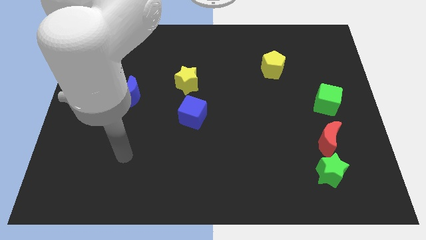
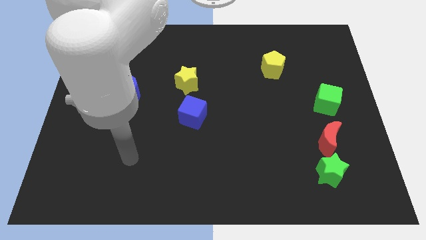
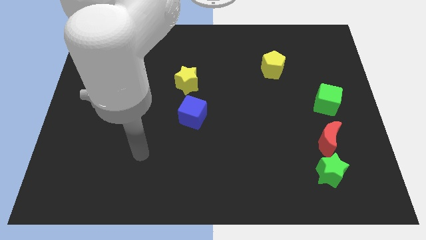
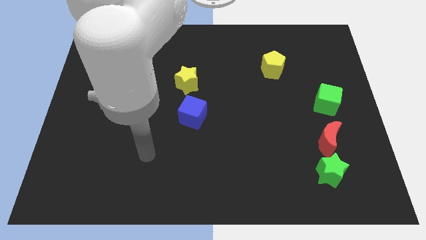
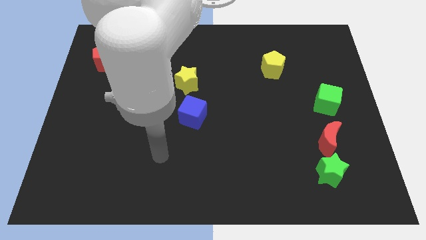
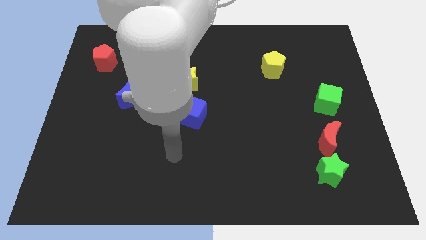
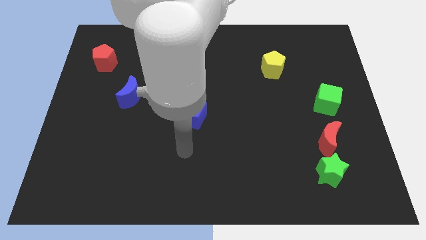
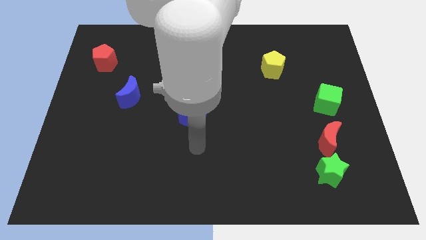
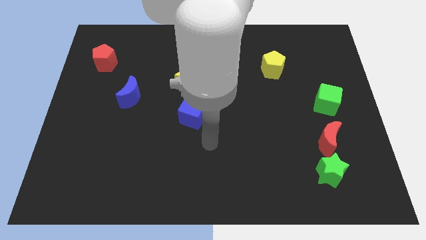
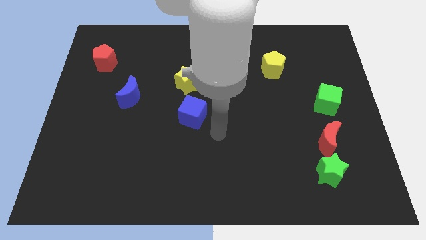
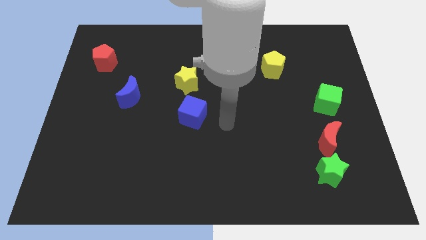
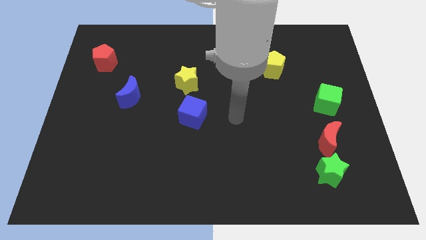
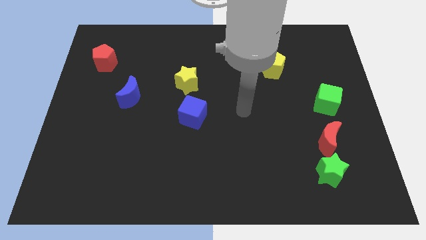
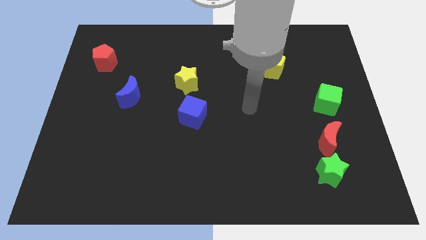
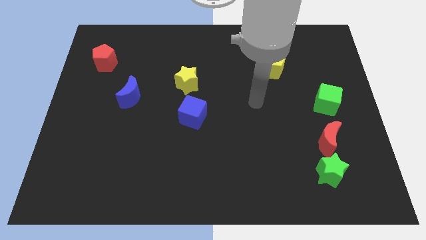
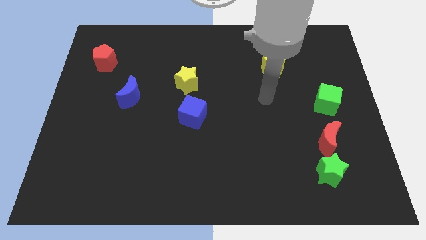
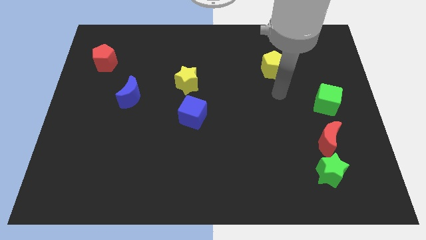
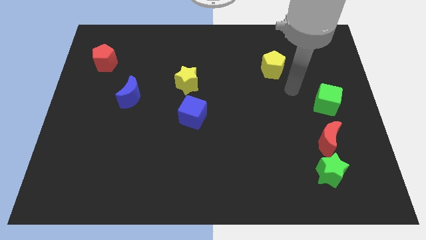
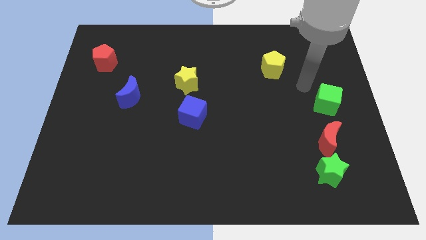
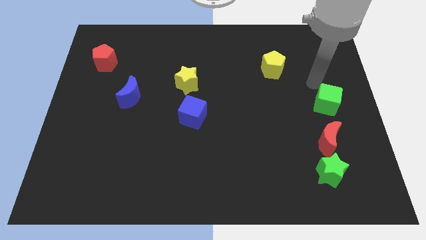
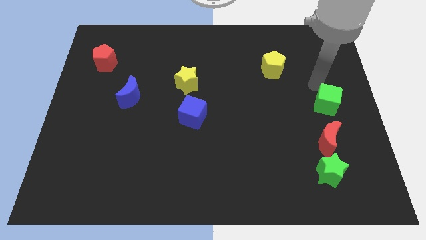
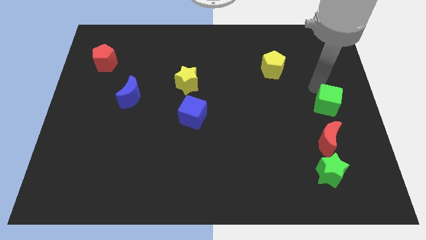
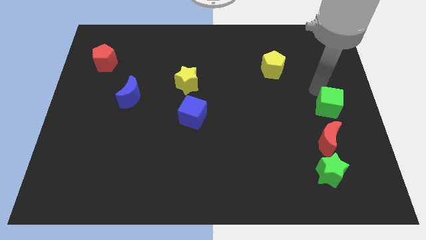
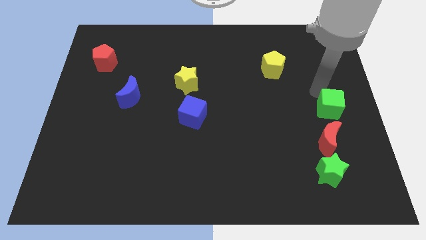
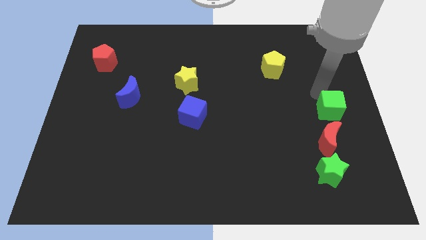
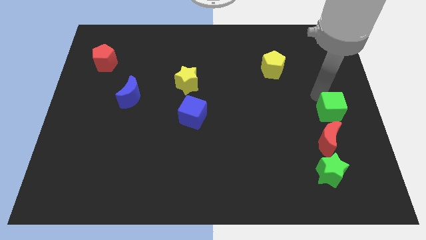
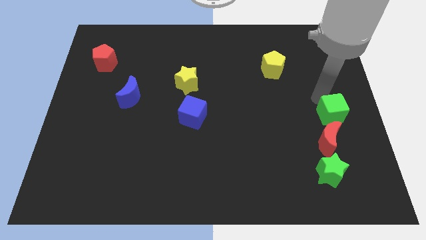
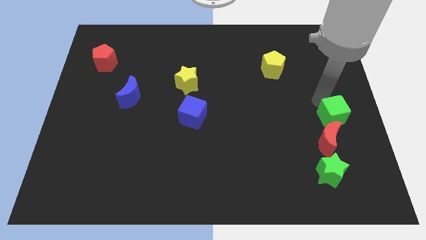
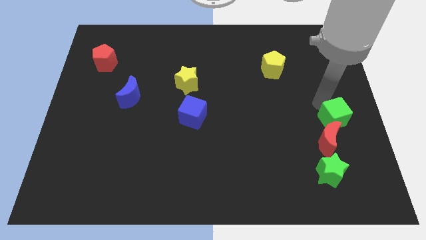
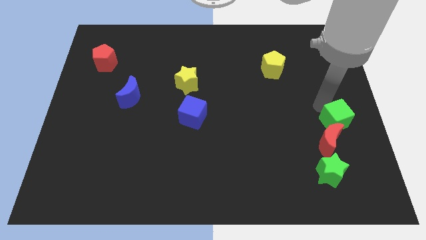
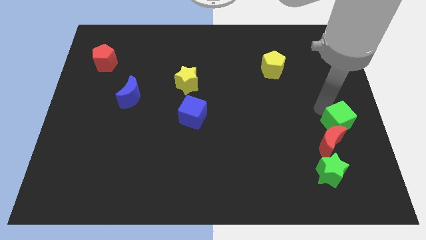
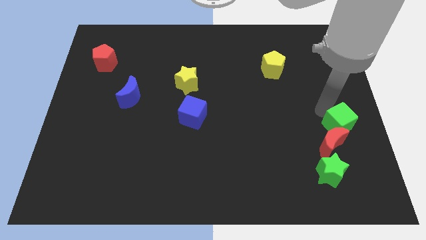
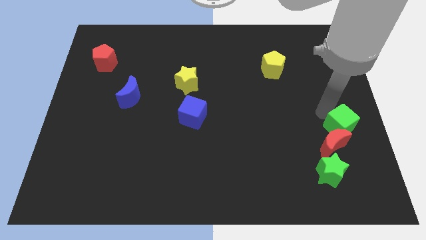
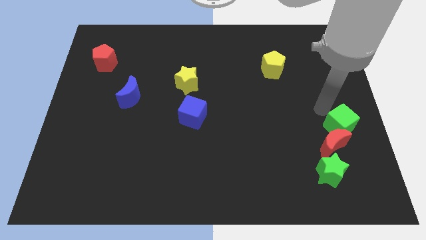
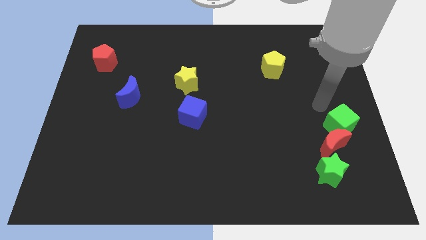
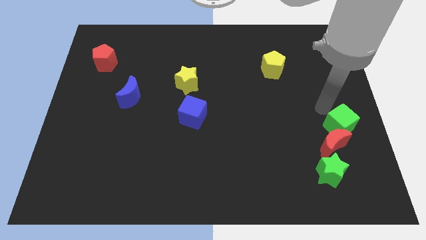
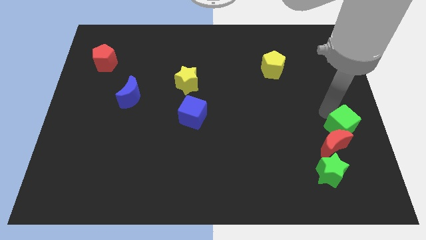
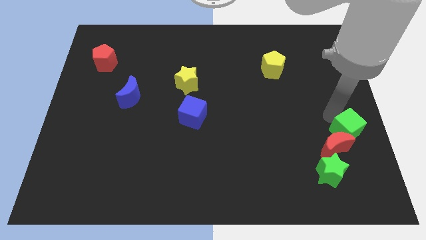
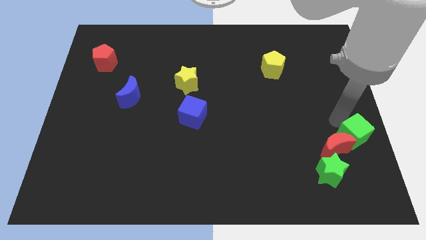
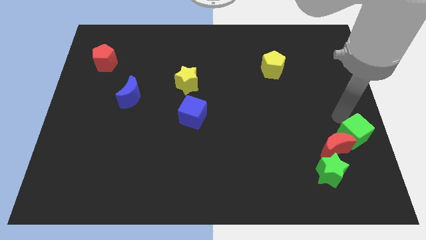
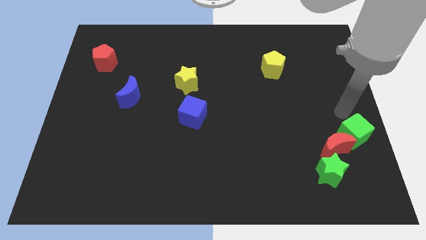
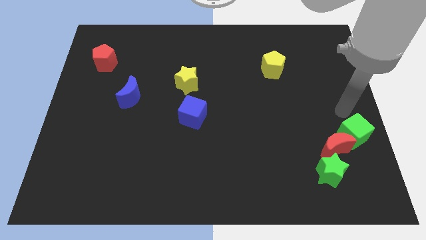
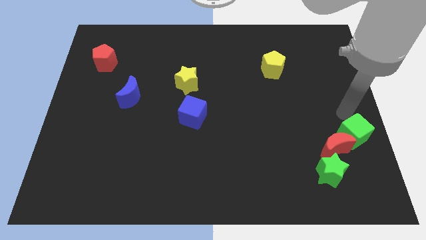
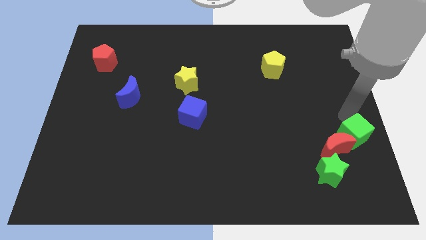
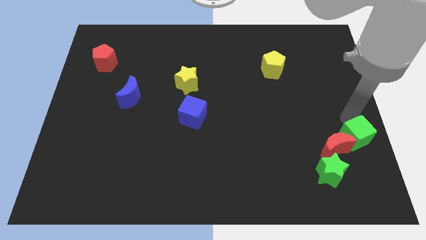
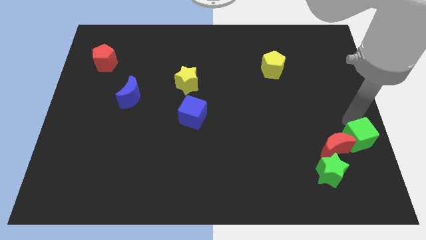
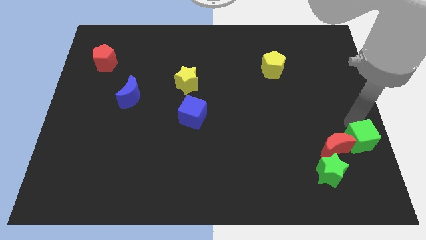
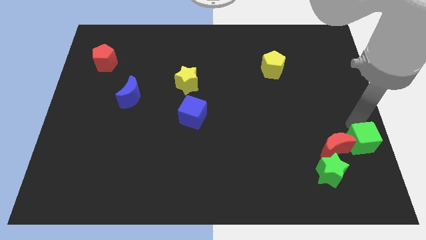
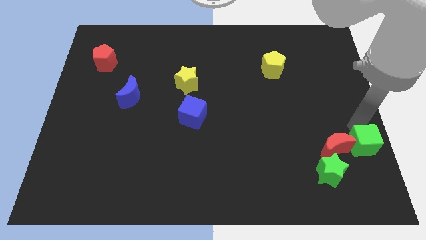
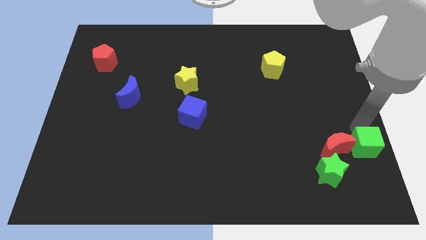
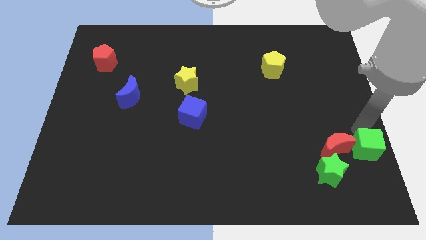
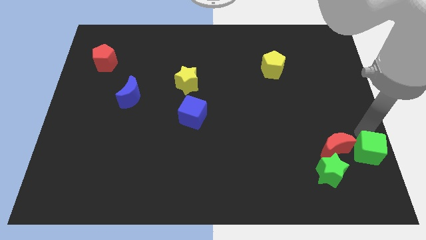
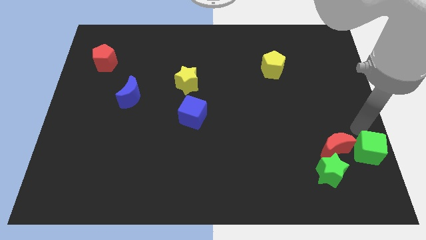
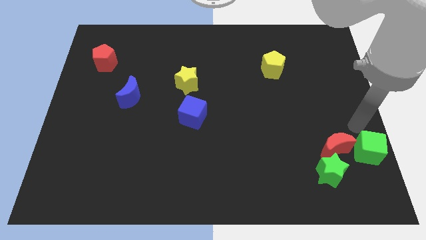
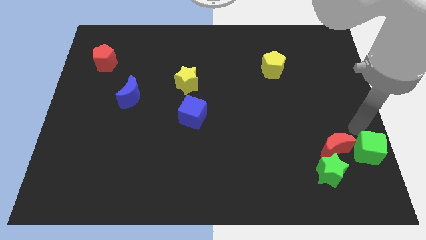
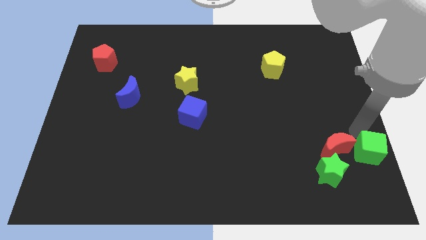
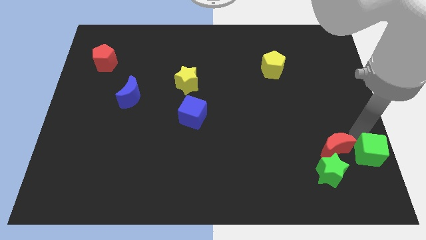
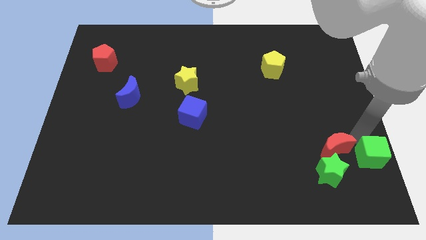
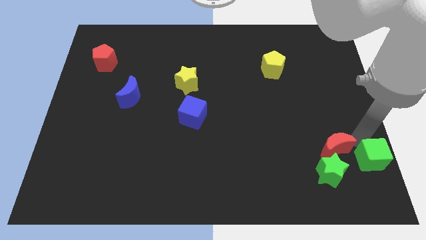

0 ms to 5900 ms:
put the green cube to the lower right corner

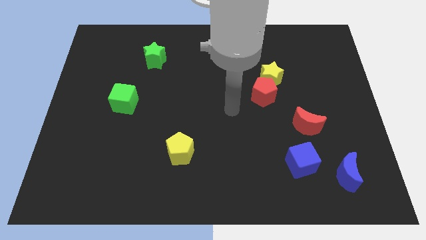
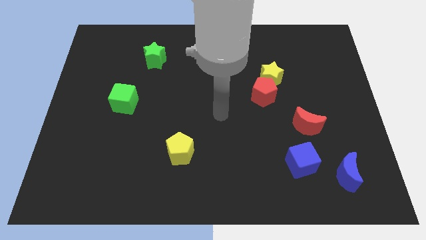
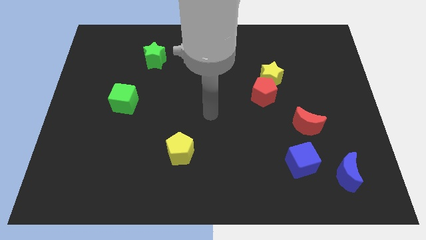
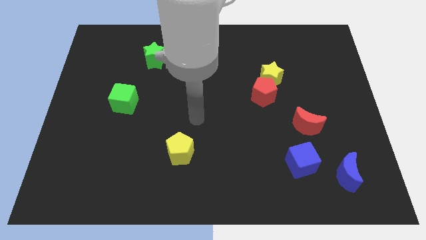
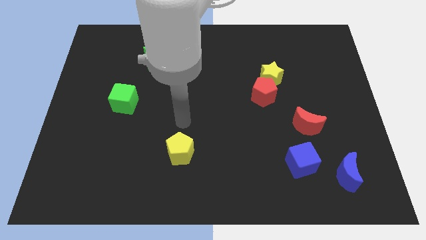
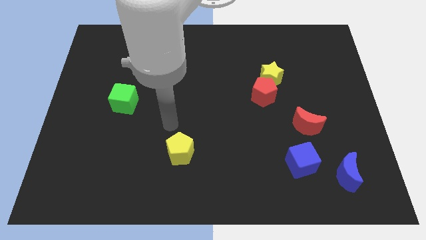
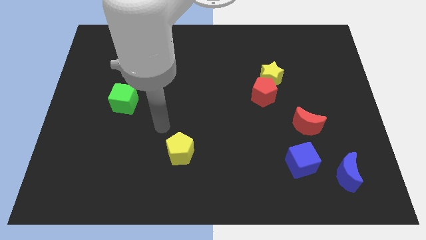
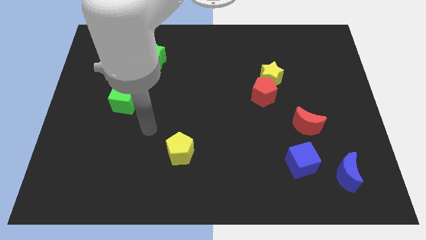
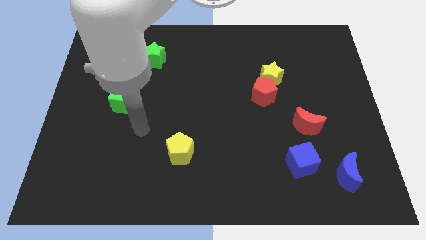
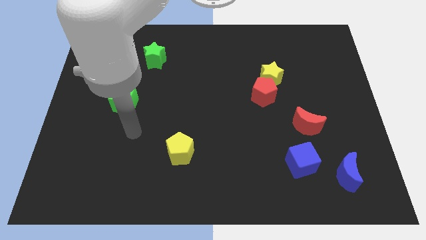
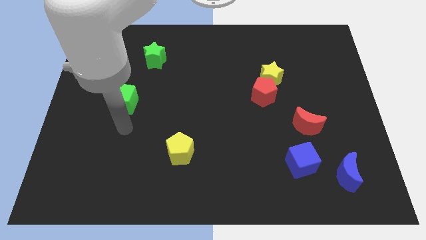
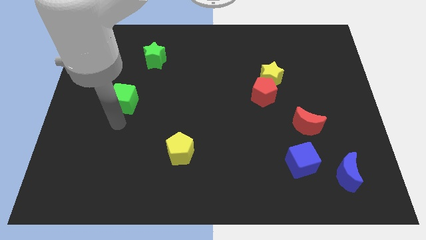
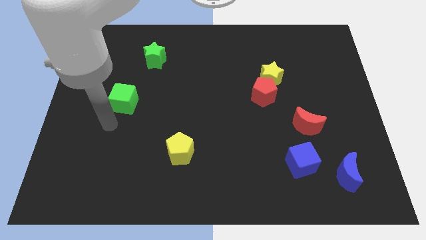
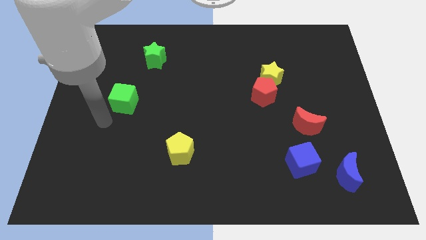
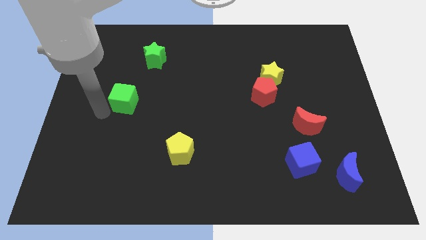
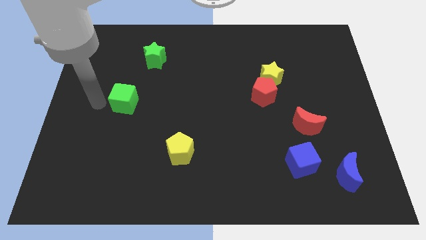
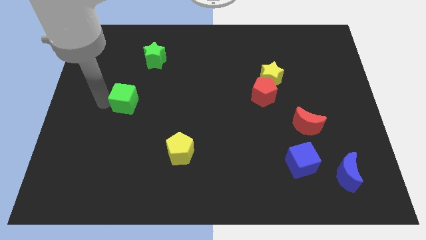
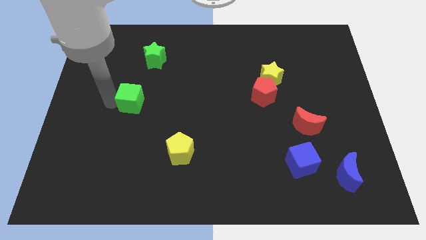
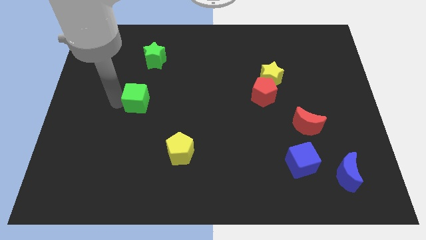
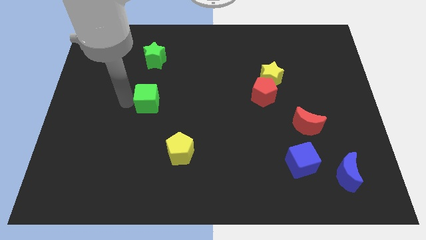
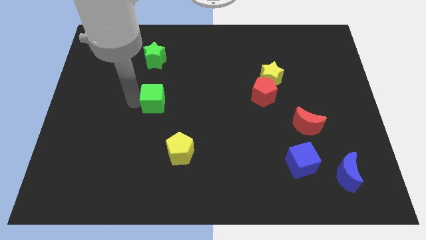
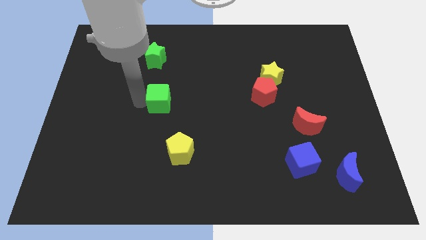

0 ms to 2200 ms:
push the green cube to the middle
